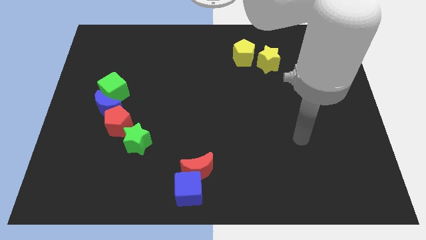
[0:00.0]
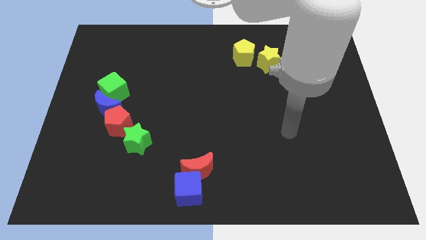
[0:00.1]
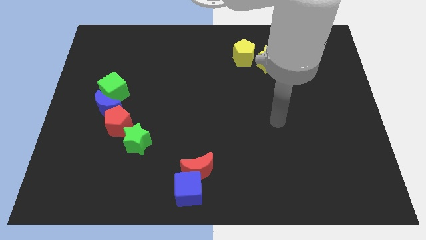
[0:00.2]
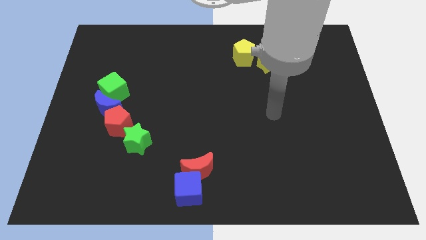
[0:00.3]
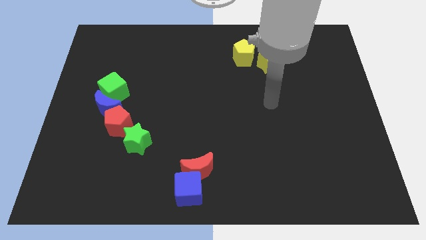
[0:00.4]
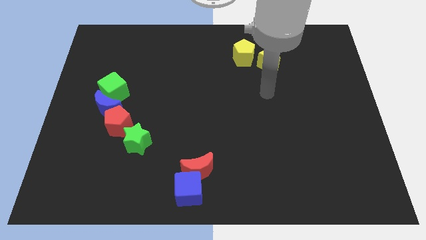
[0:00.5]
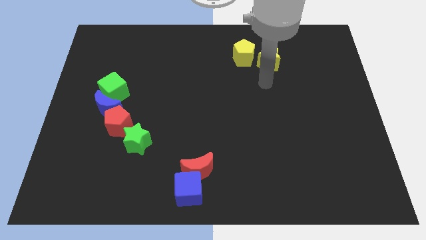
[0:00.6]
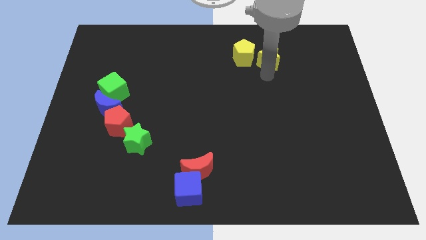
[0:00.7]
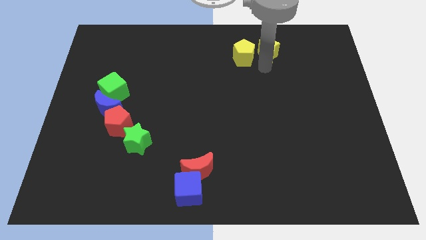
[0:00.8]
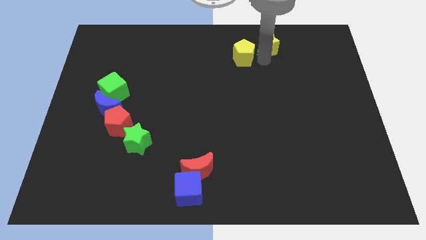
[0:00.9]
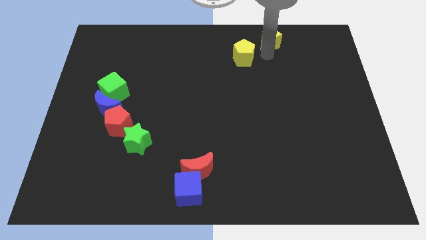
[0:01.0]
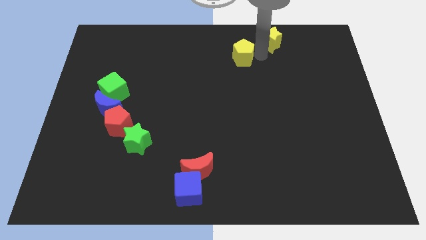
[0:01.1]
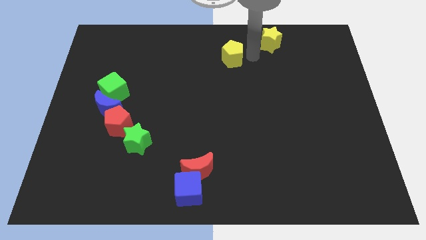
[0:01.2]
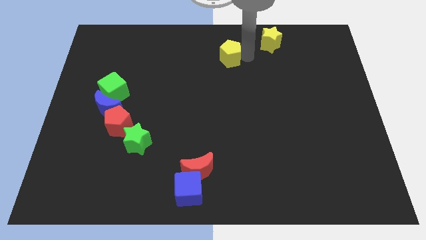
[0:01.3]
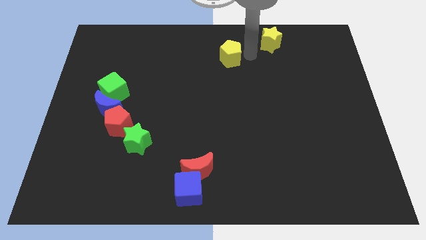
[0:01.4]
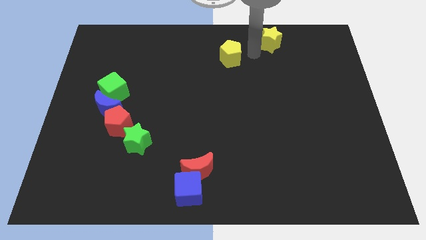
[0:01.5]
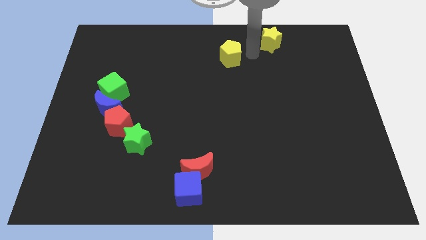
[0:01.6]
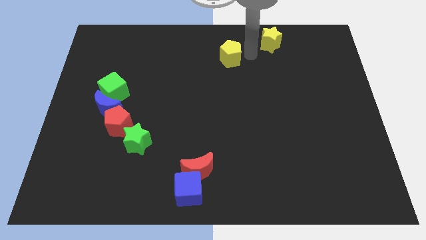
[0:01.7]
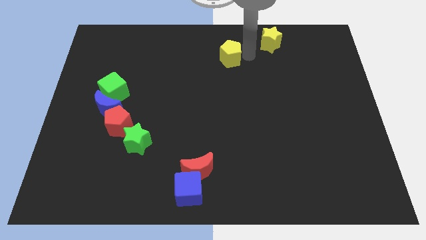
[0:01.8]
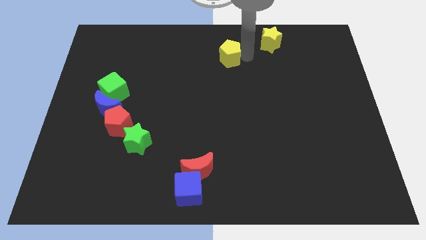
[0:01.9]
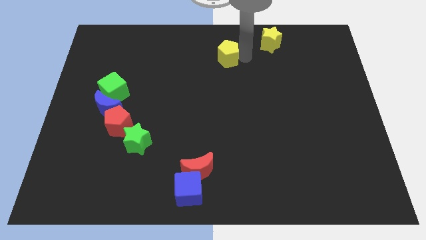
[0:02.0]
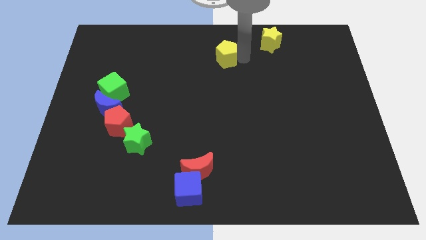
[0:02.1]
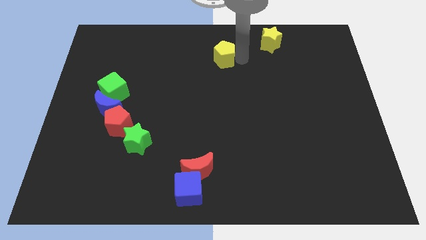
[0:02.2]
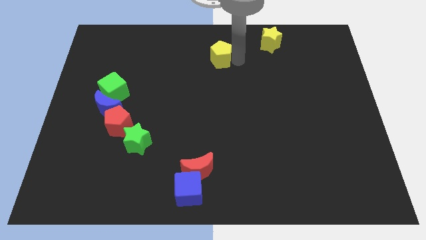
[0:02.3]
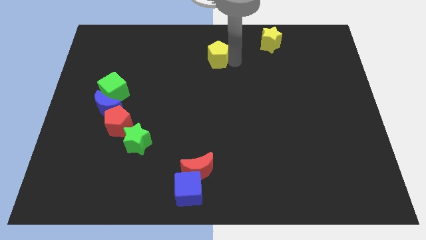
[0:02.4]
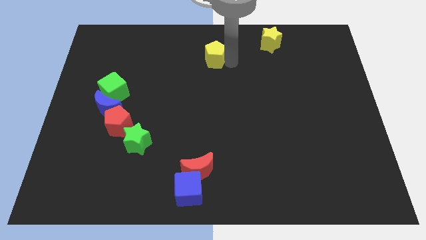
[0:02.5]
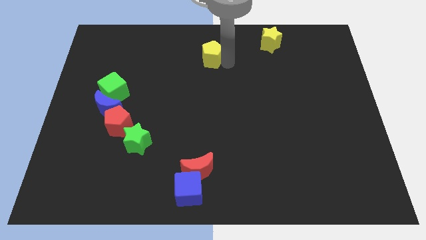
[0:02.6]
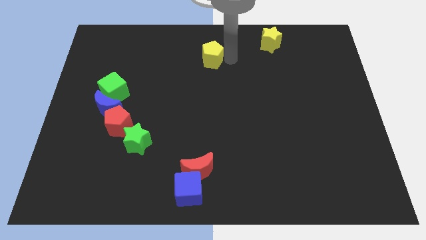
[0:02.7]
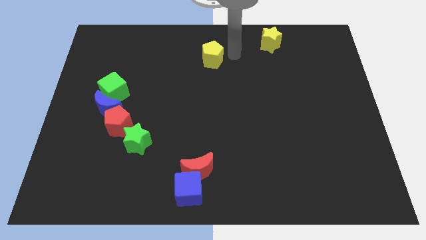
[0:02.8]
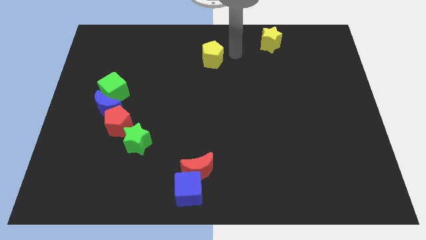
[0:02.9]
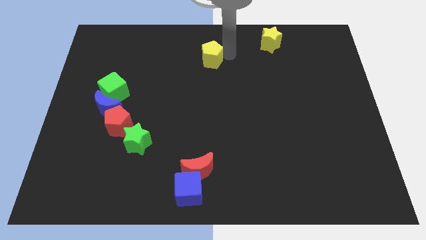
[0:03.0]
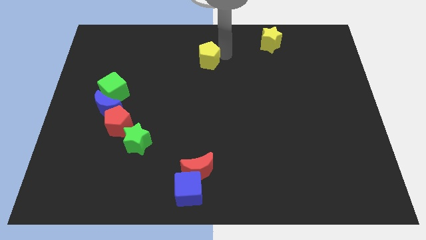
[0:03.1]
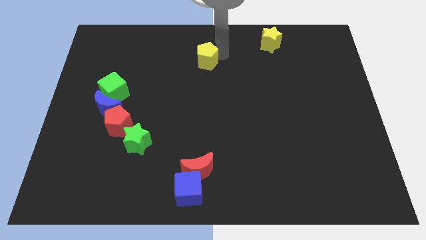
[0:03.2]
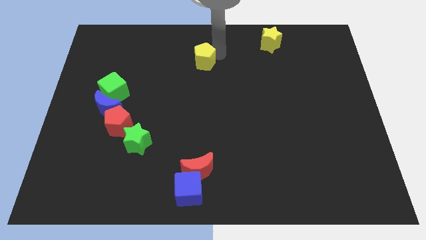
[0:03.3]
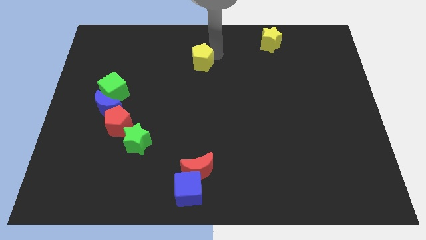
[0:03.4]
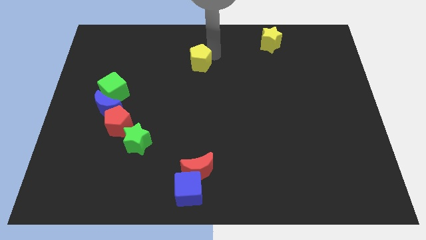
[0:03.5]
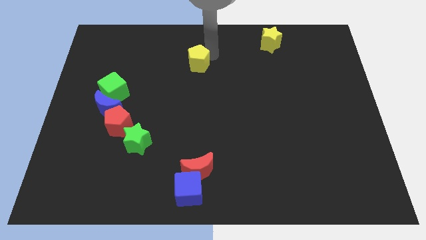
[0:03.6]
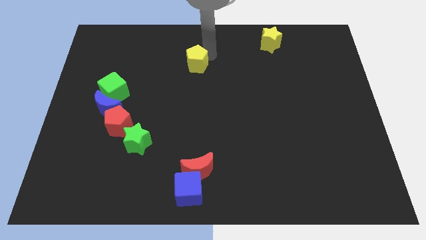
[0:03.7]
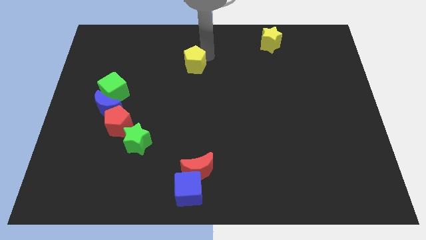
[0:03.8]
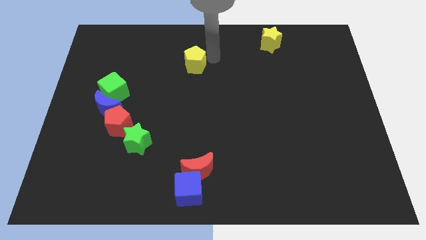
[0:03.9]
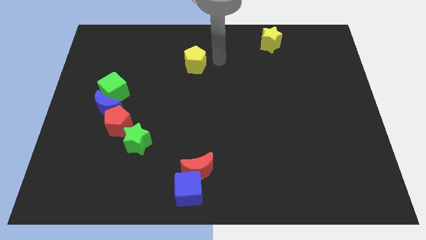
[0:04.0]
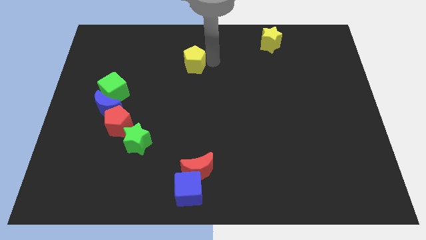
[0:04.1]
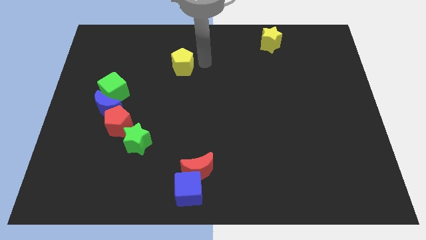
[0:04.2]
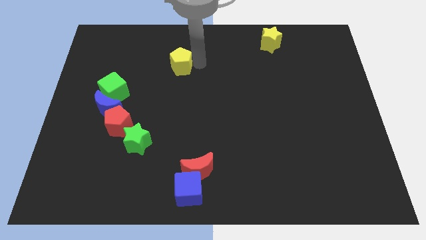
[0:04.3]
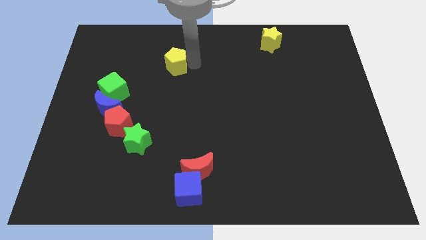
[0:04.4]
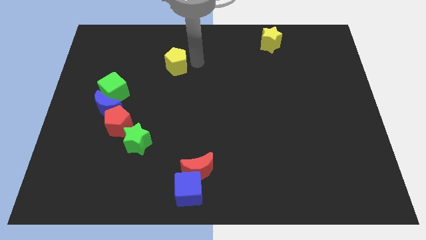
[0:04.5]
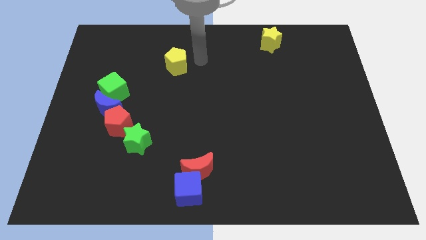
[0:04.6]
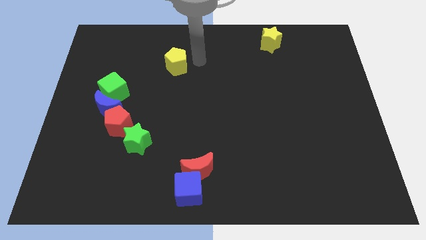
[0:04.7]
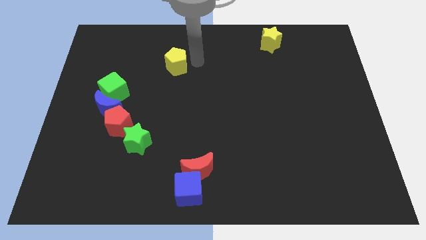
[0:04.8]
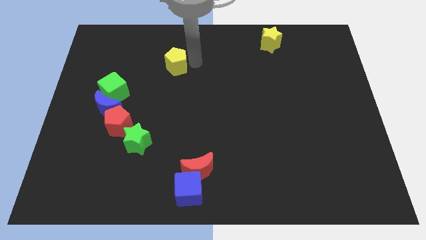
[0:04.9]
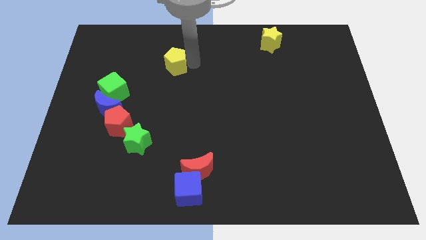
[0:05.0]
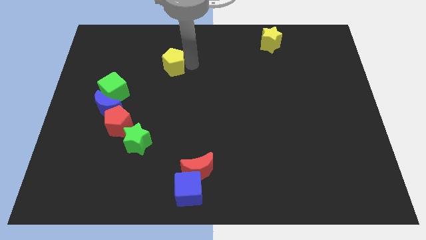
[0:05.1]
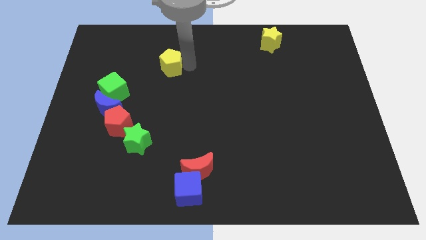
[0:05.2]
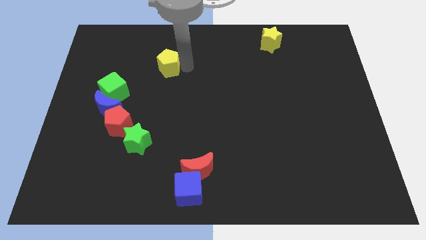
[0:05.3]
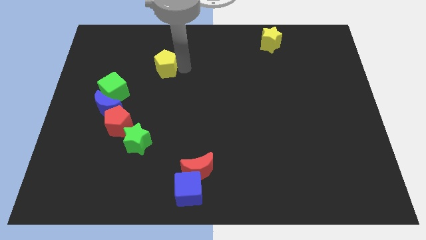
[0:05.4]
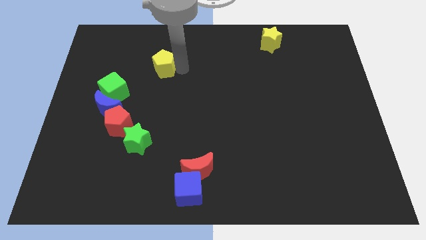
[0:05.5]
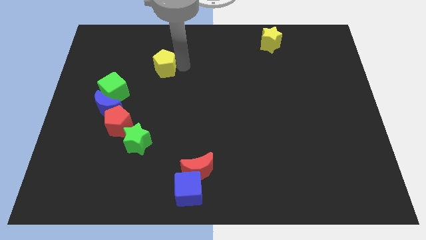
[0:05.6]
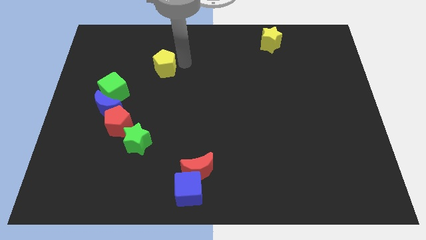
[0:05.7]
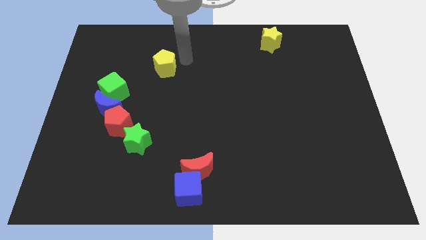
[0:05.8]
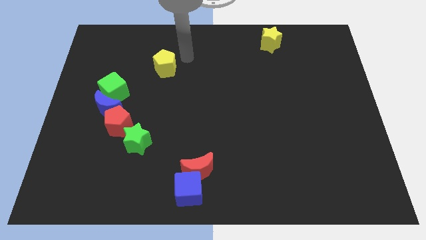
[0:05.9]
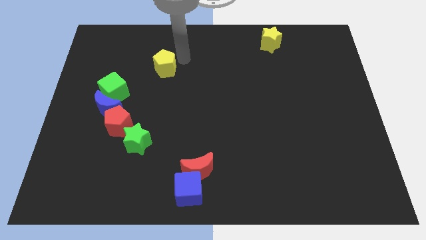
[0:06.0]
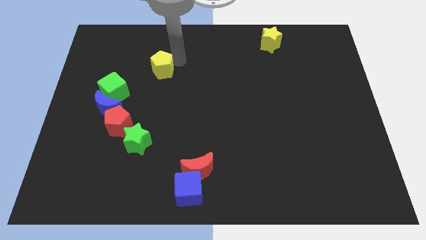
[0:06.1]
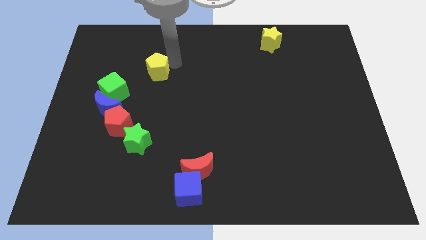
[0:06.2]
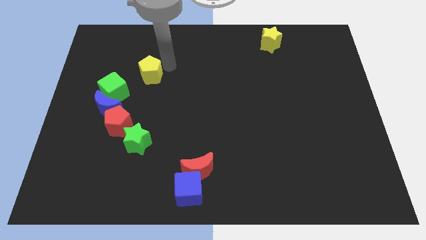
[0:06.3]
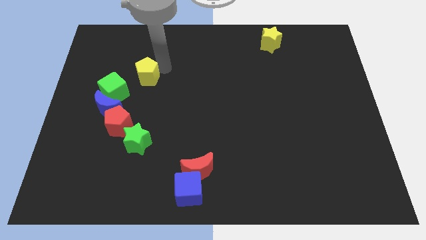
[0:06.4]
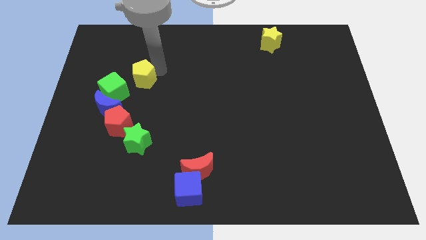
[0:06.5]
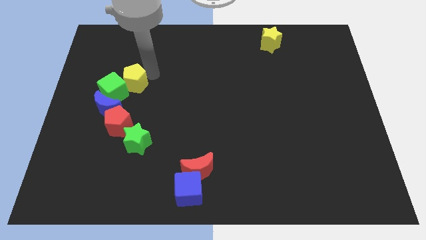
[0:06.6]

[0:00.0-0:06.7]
slide the yellow pentagon towards the green cube
